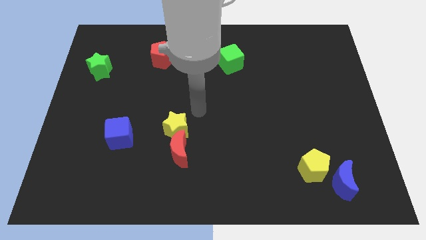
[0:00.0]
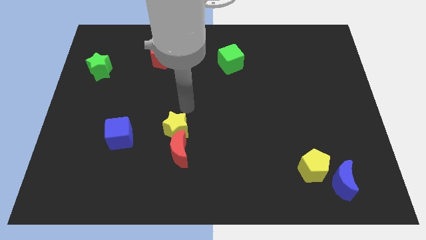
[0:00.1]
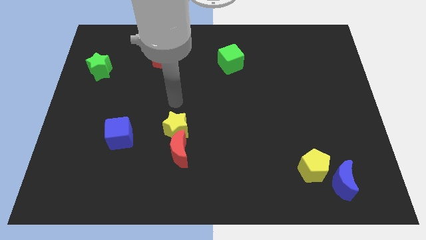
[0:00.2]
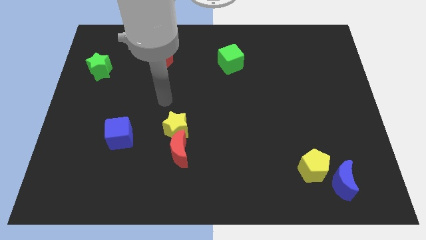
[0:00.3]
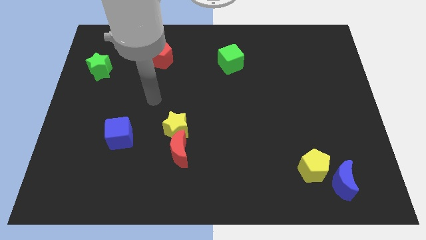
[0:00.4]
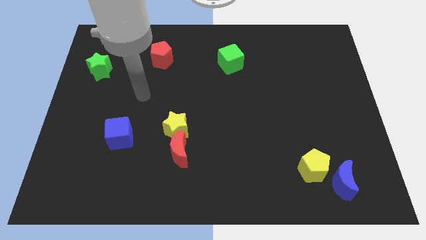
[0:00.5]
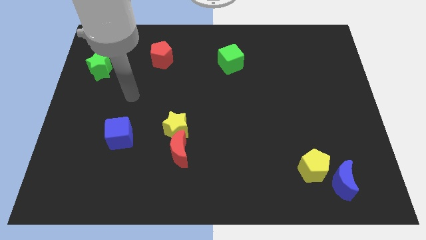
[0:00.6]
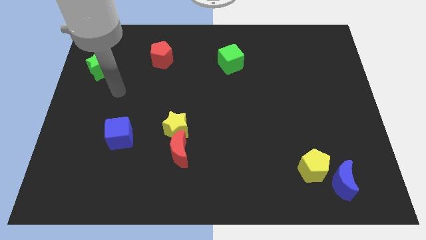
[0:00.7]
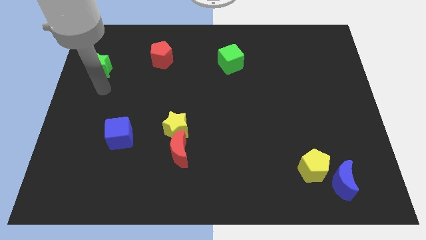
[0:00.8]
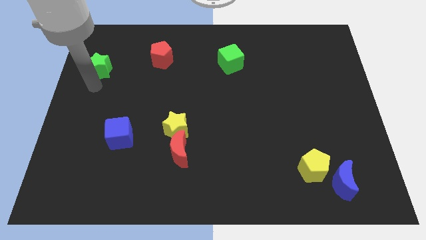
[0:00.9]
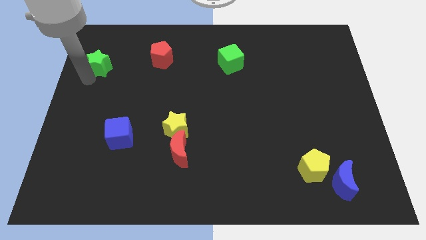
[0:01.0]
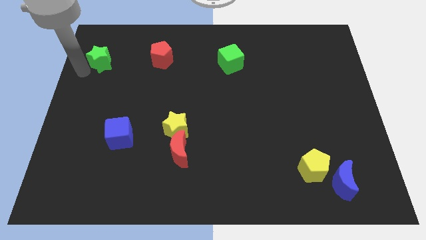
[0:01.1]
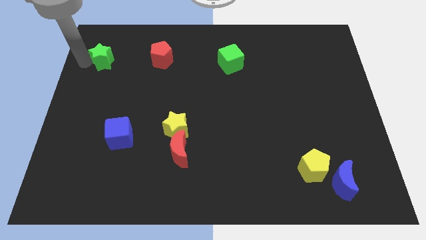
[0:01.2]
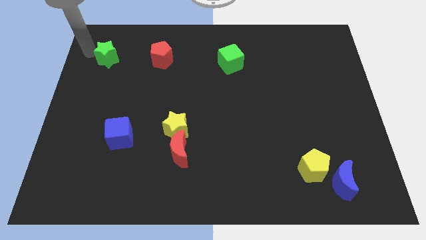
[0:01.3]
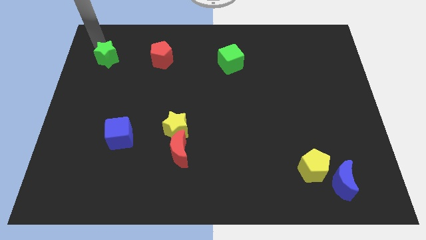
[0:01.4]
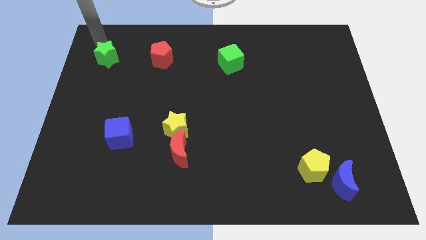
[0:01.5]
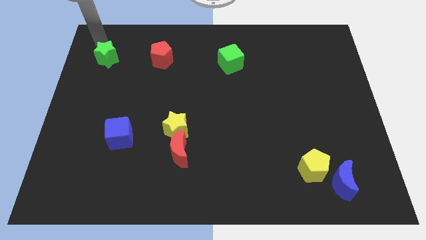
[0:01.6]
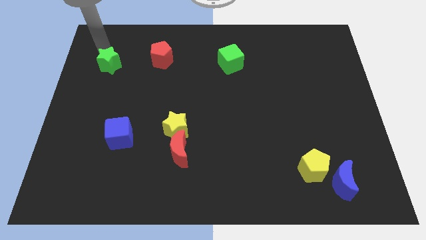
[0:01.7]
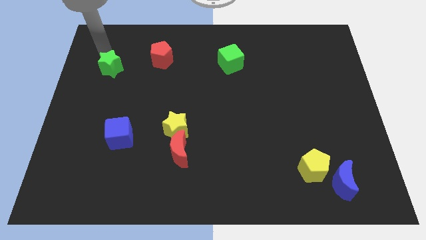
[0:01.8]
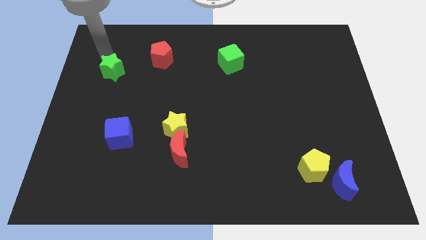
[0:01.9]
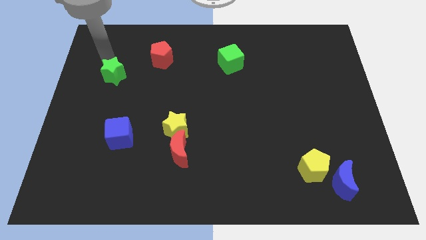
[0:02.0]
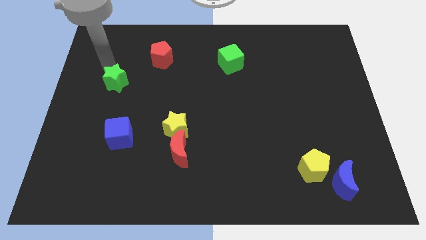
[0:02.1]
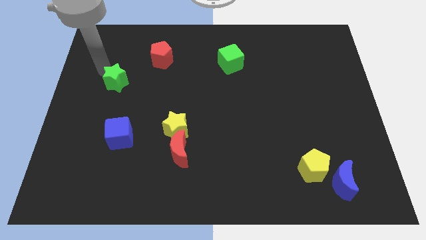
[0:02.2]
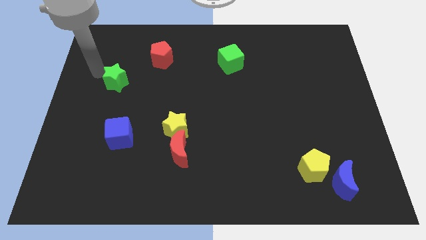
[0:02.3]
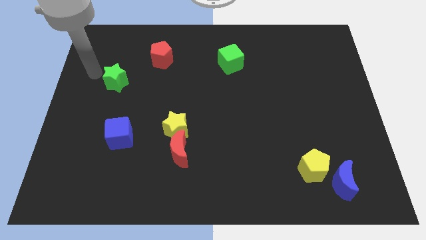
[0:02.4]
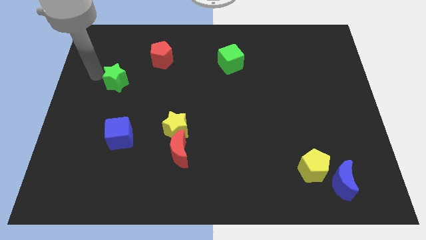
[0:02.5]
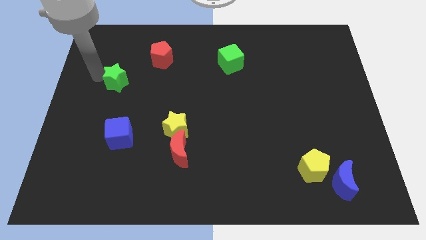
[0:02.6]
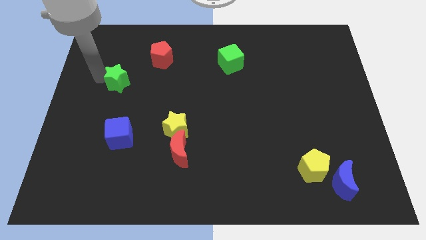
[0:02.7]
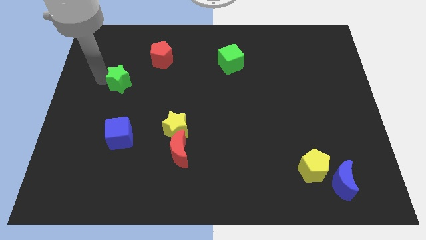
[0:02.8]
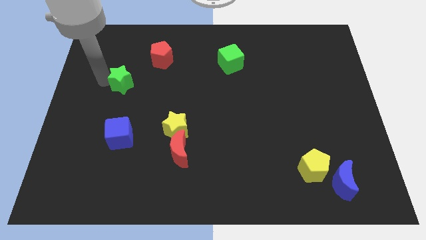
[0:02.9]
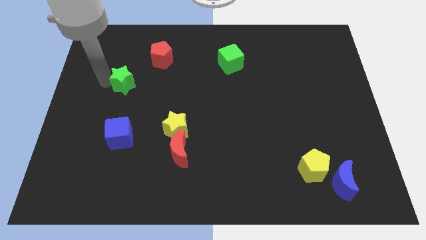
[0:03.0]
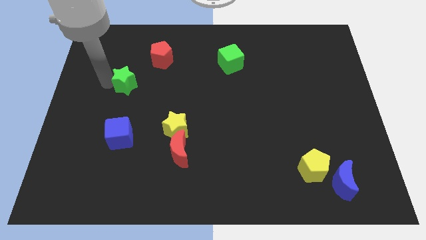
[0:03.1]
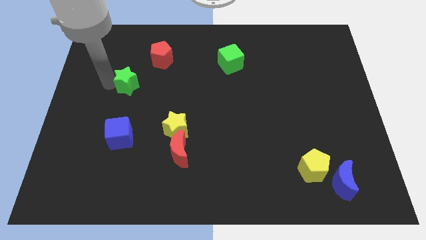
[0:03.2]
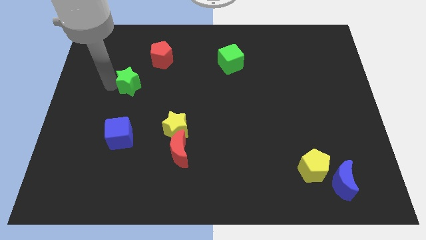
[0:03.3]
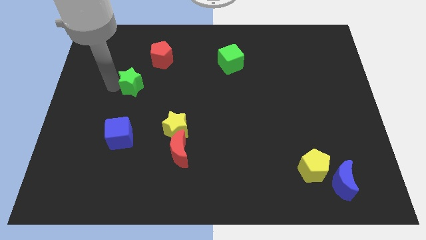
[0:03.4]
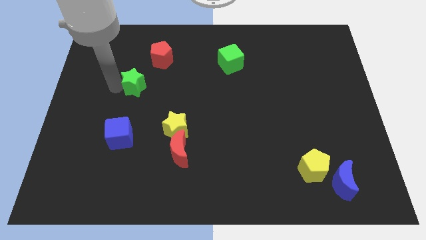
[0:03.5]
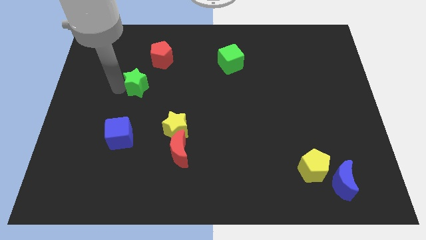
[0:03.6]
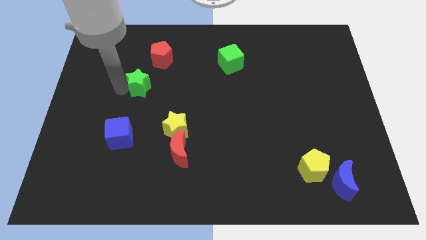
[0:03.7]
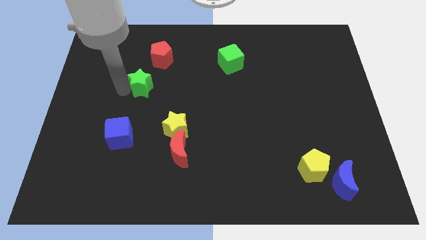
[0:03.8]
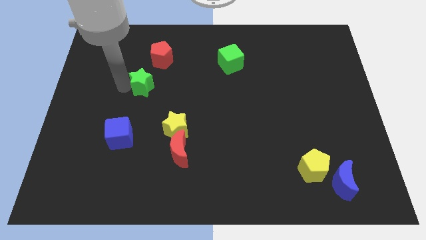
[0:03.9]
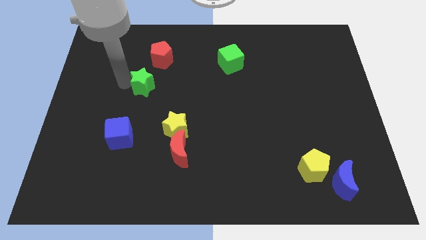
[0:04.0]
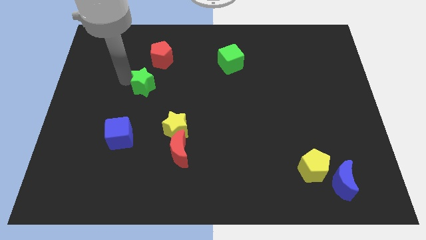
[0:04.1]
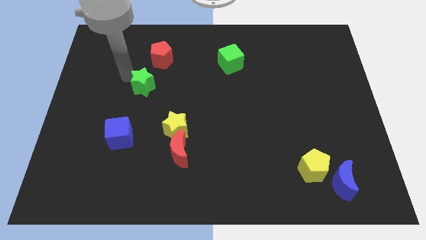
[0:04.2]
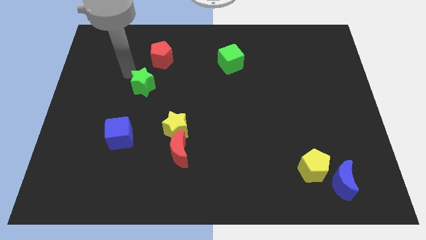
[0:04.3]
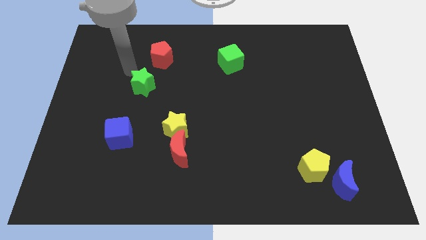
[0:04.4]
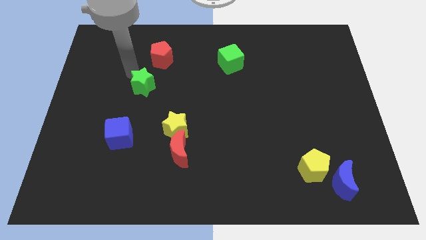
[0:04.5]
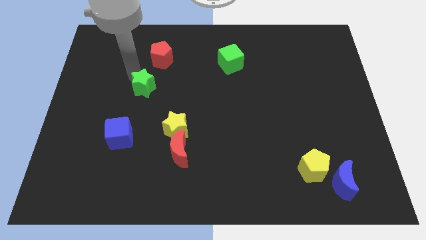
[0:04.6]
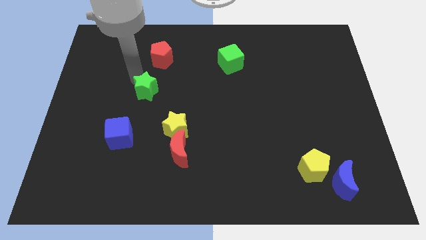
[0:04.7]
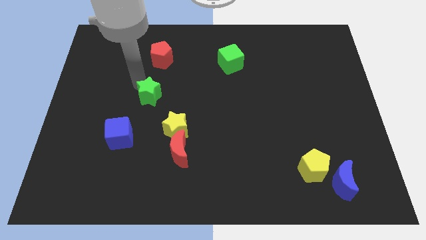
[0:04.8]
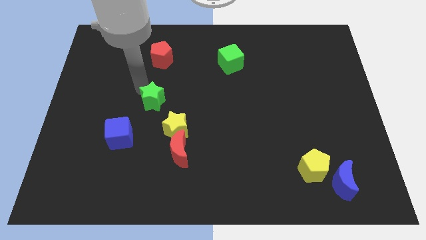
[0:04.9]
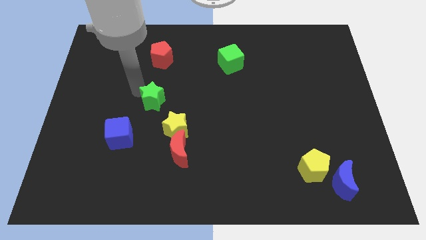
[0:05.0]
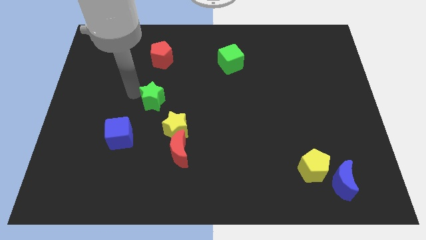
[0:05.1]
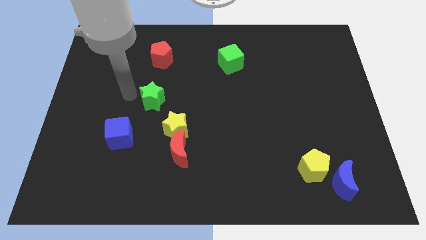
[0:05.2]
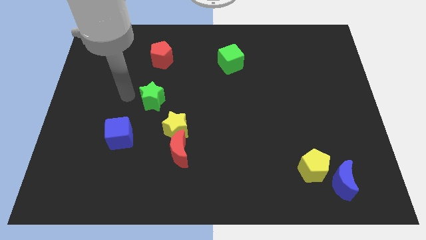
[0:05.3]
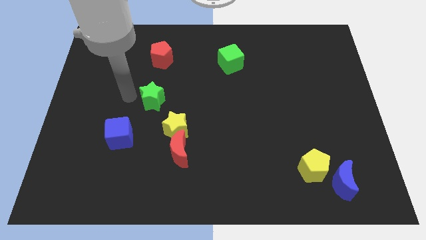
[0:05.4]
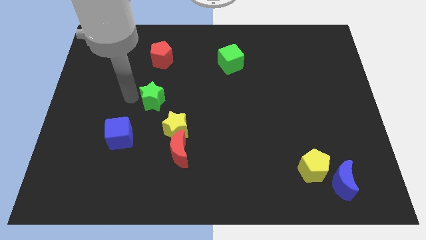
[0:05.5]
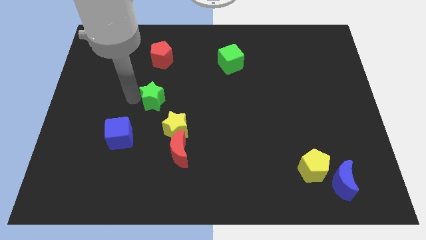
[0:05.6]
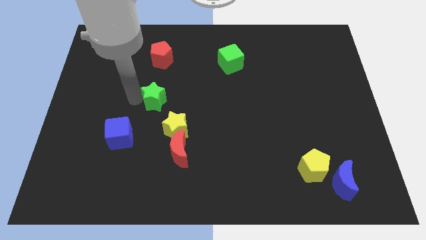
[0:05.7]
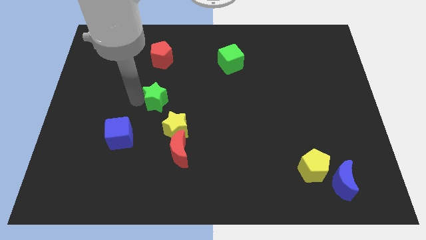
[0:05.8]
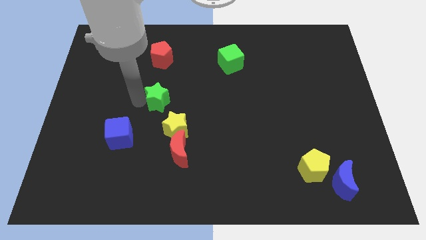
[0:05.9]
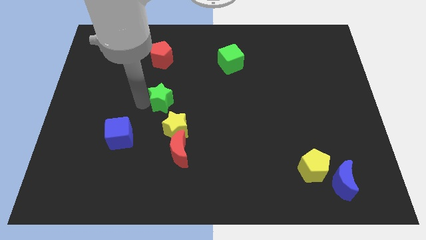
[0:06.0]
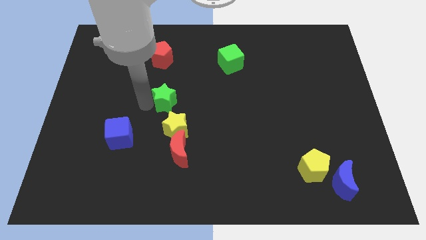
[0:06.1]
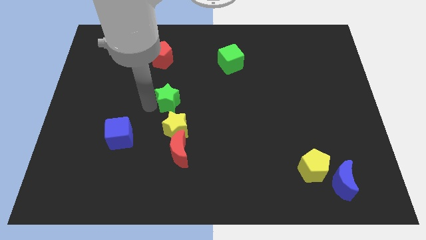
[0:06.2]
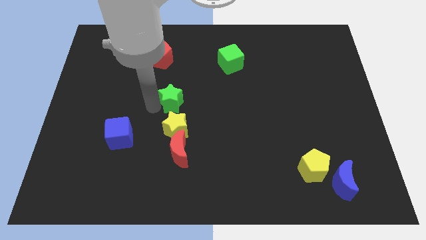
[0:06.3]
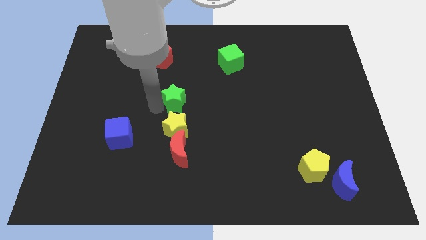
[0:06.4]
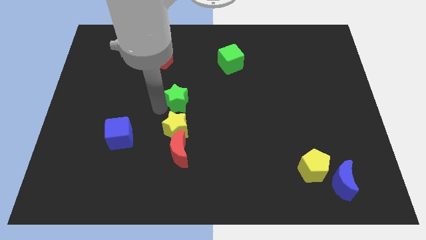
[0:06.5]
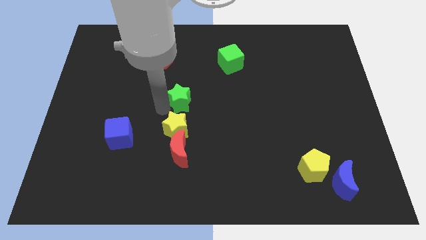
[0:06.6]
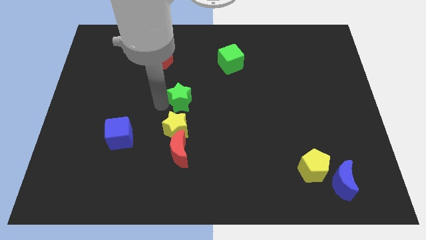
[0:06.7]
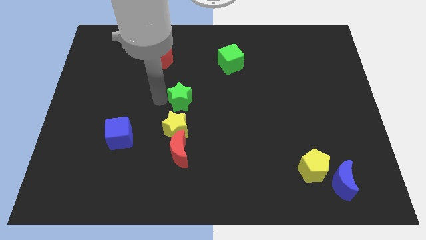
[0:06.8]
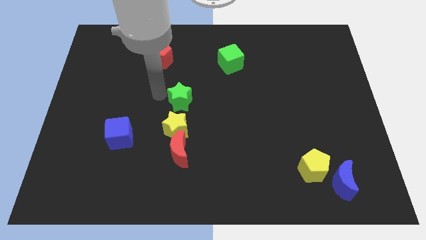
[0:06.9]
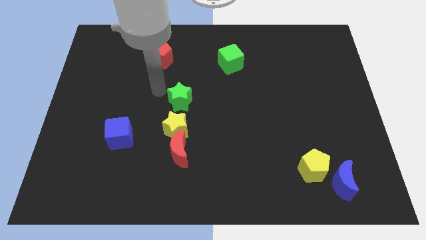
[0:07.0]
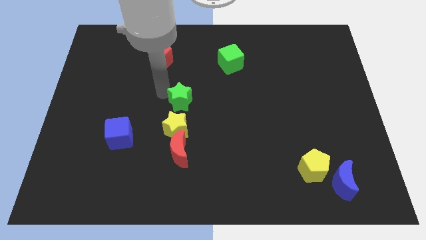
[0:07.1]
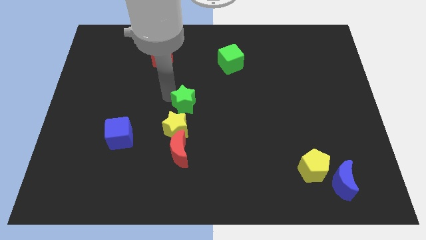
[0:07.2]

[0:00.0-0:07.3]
push the green star to the top right of the yellow star
